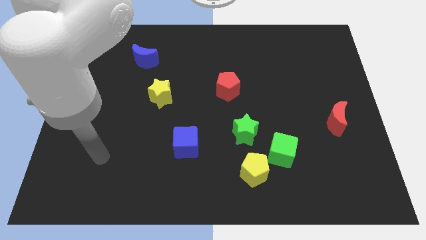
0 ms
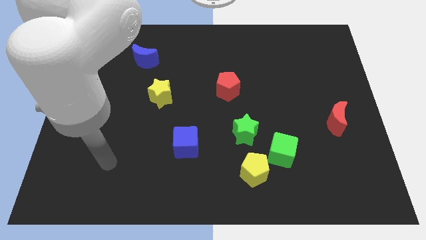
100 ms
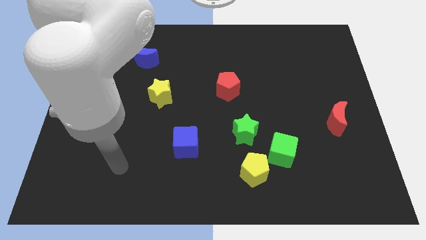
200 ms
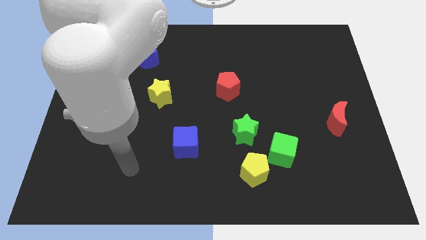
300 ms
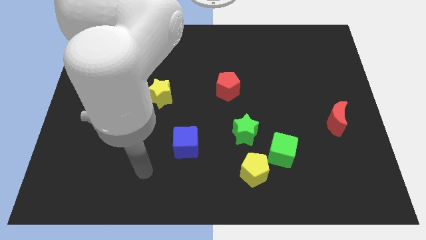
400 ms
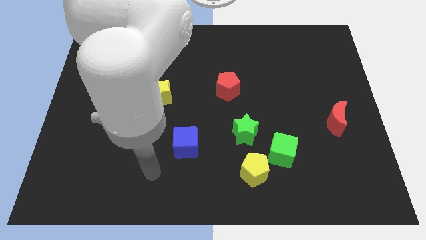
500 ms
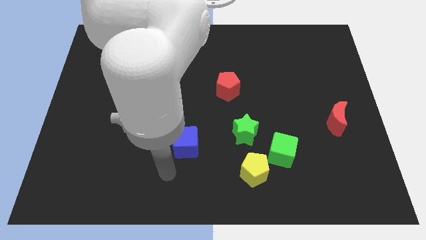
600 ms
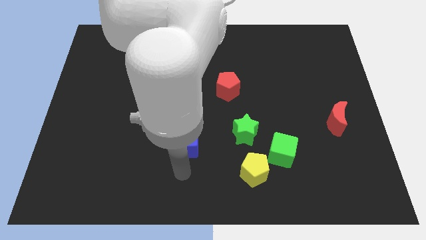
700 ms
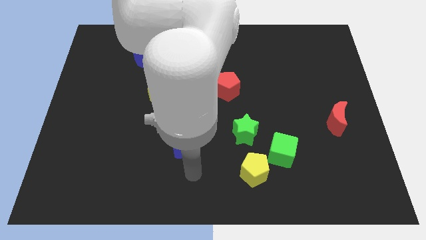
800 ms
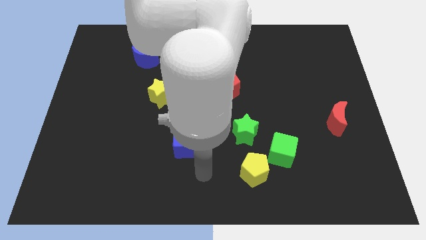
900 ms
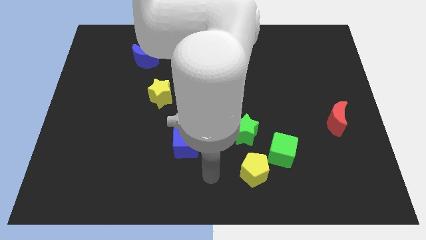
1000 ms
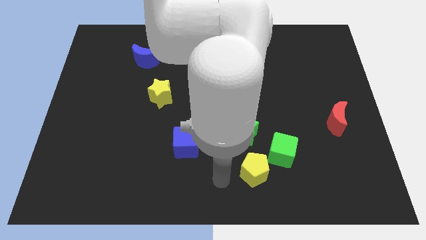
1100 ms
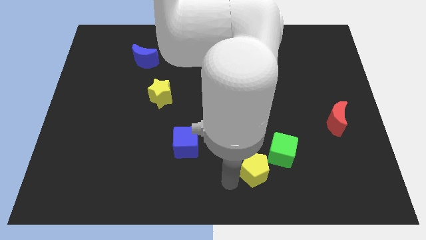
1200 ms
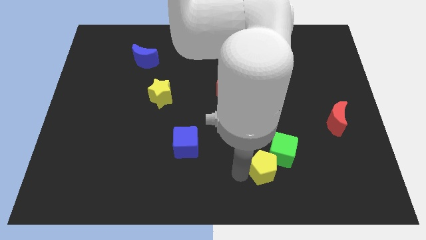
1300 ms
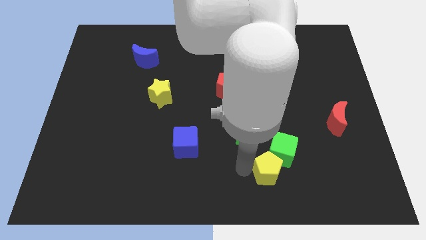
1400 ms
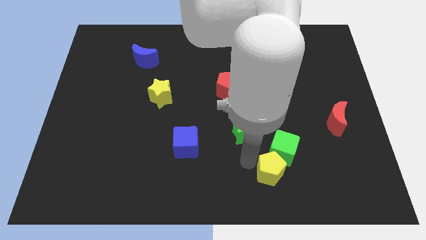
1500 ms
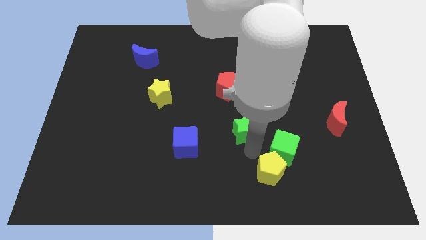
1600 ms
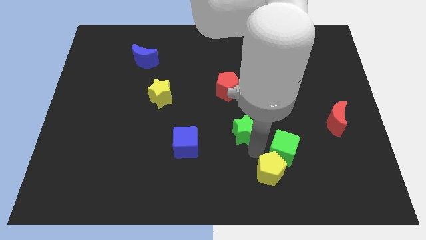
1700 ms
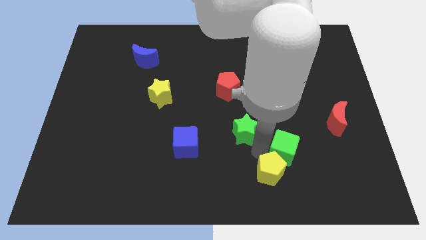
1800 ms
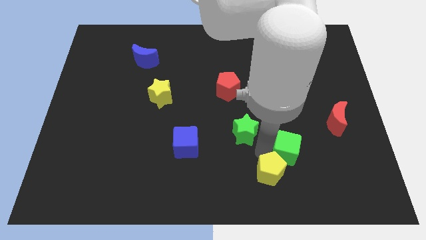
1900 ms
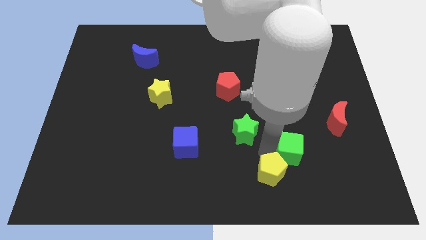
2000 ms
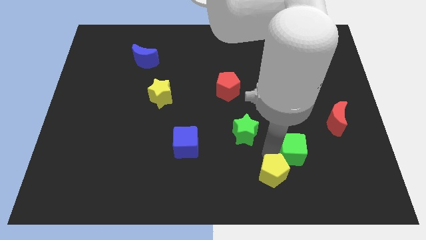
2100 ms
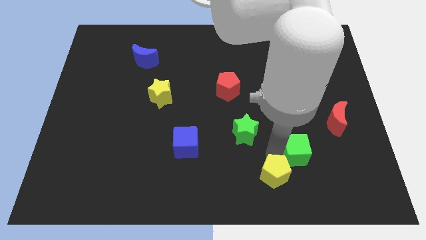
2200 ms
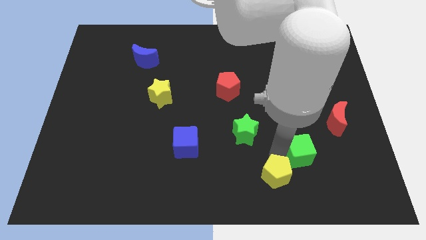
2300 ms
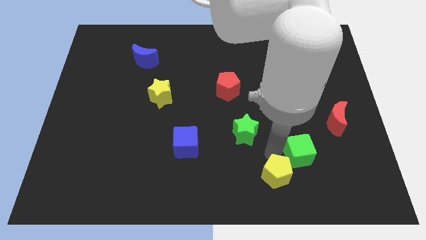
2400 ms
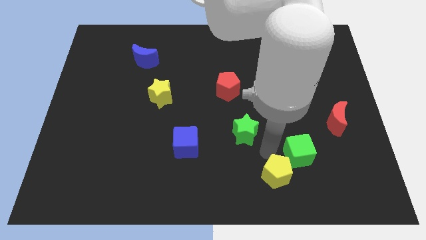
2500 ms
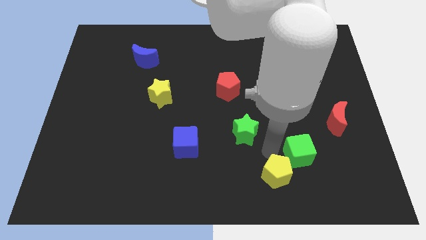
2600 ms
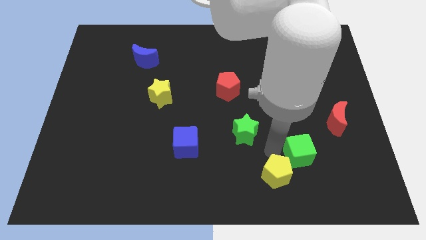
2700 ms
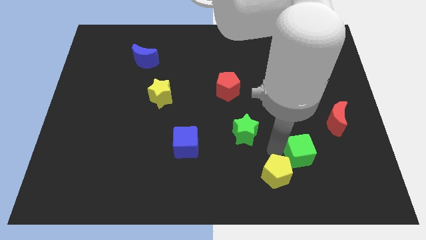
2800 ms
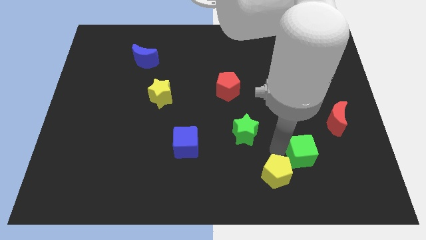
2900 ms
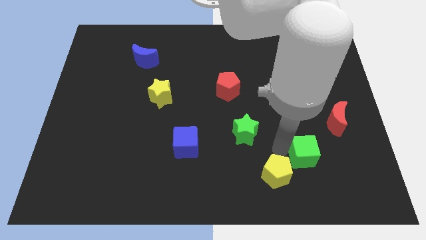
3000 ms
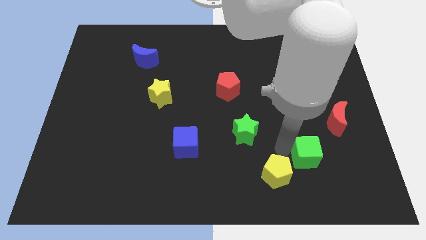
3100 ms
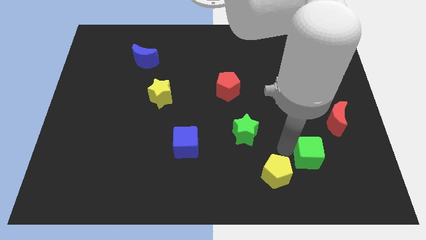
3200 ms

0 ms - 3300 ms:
pull the green cube apart from the yellow pentagon and green star

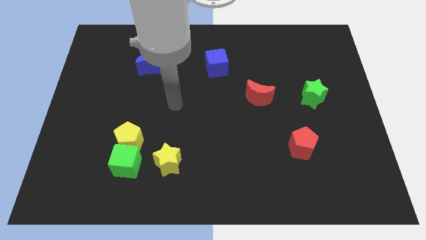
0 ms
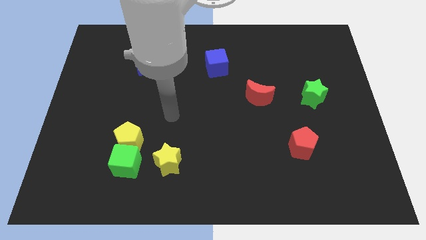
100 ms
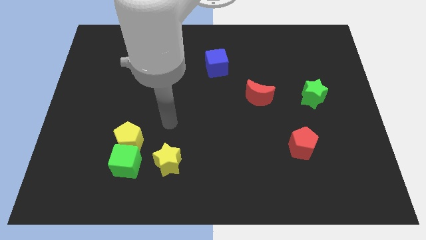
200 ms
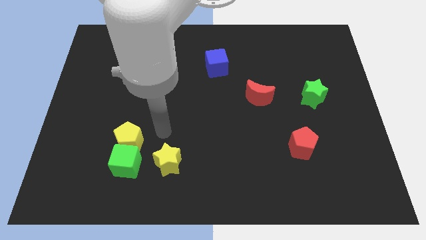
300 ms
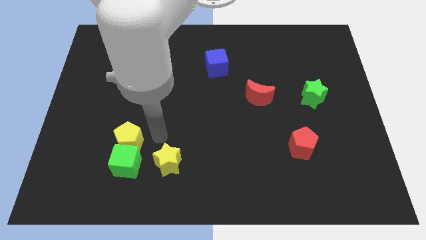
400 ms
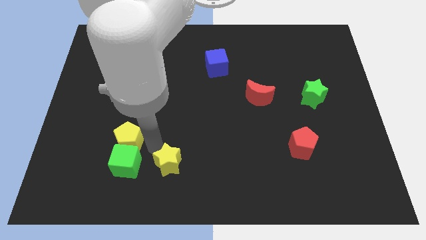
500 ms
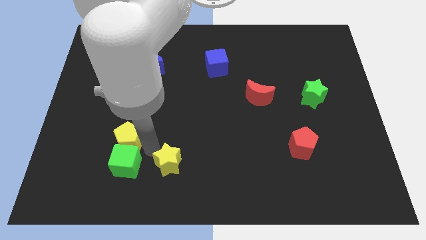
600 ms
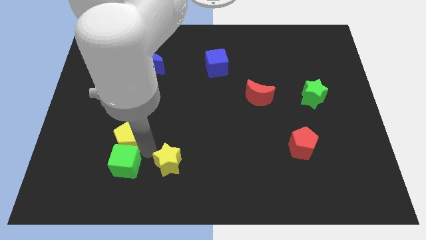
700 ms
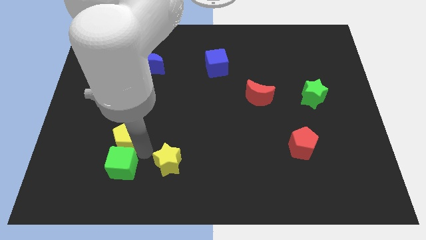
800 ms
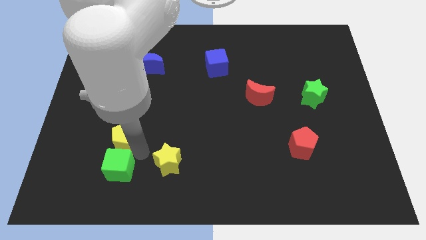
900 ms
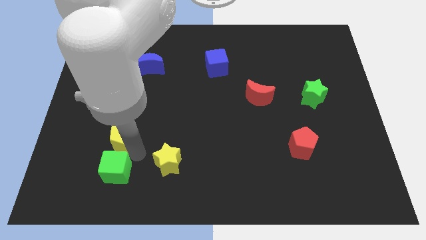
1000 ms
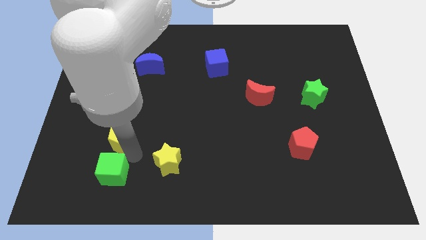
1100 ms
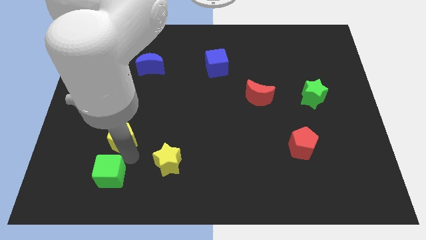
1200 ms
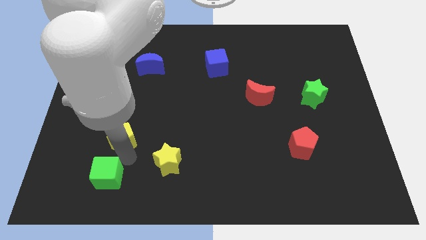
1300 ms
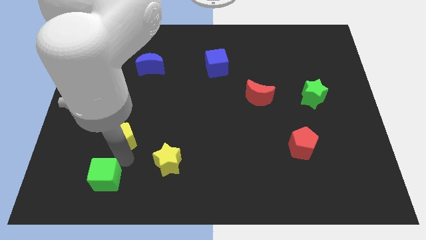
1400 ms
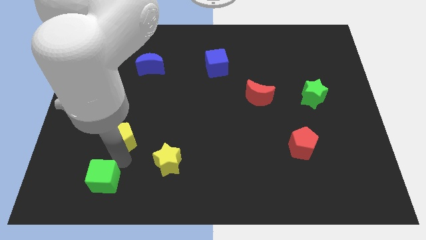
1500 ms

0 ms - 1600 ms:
move the green cube away from the yellow pentagon and yellow star

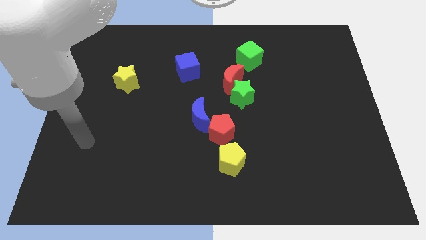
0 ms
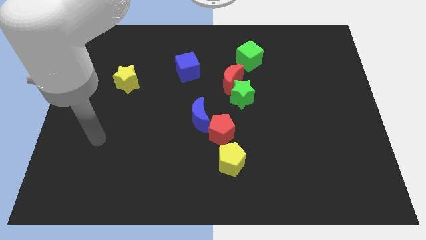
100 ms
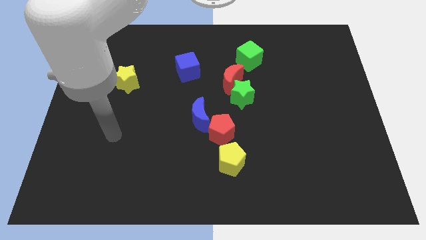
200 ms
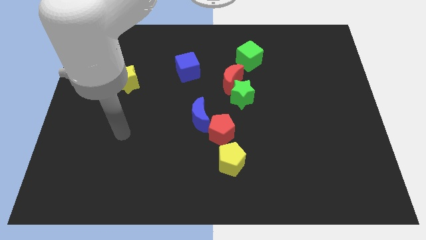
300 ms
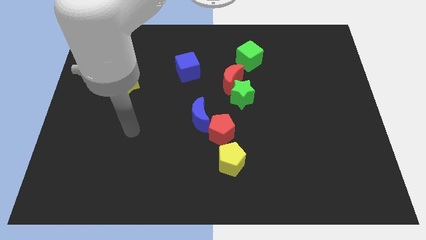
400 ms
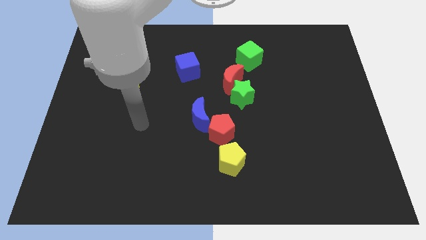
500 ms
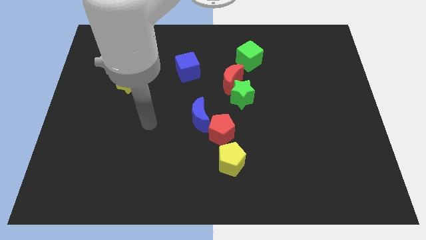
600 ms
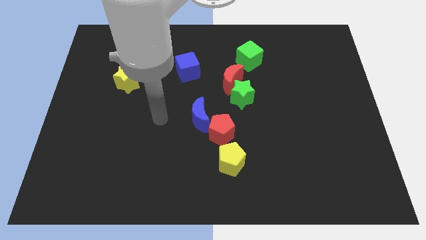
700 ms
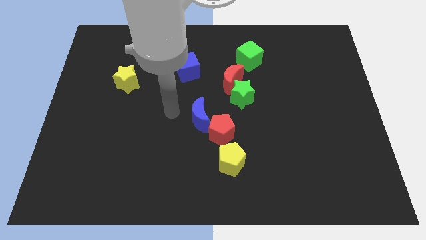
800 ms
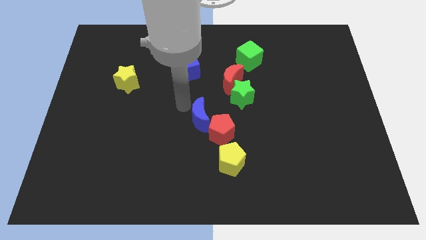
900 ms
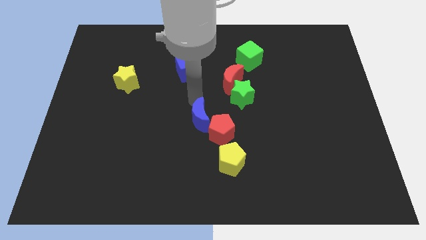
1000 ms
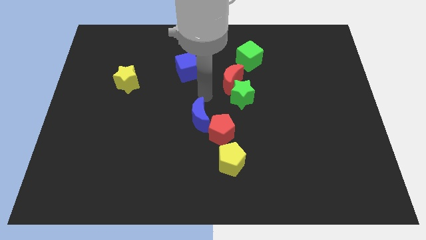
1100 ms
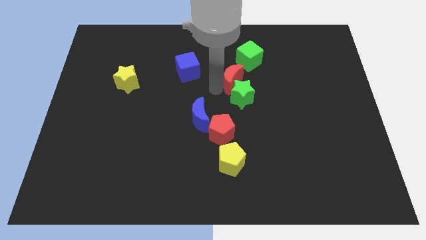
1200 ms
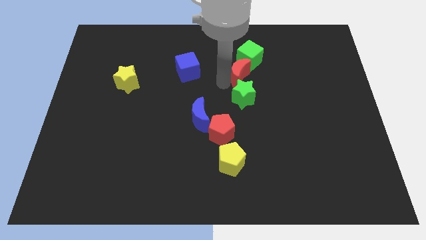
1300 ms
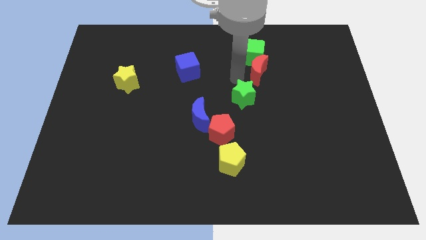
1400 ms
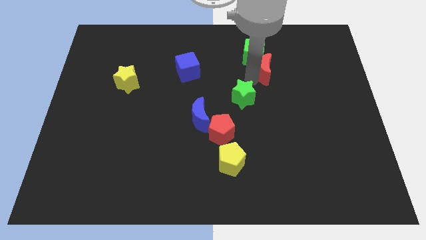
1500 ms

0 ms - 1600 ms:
pull the green star apart from the red moon

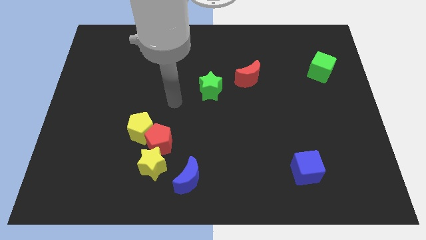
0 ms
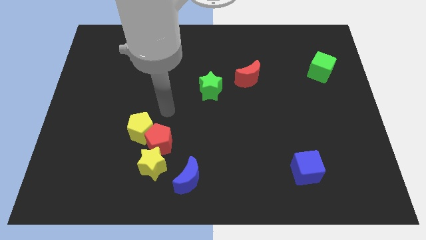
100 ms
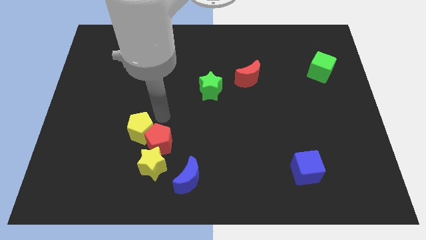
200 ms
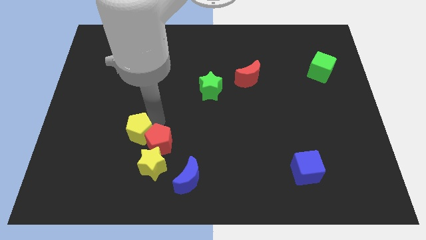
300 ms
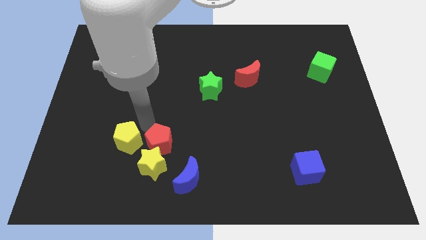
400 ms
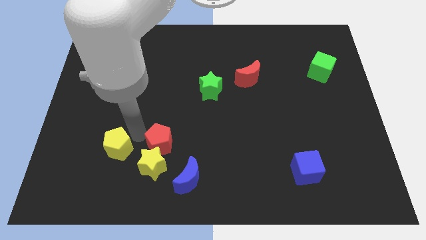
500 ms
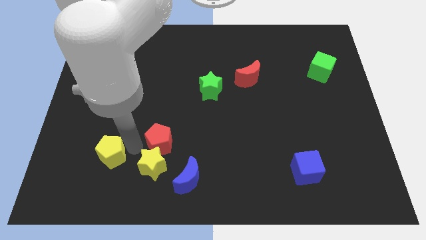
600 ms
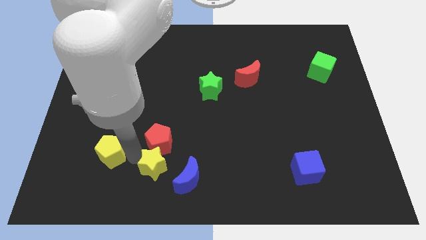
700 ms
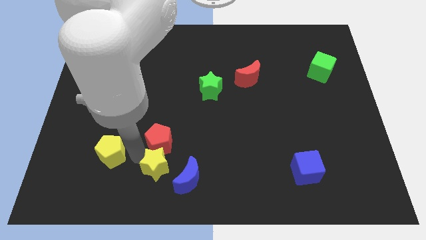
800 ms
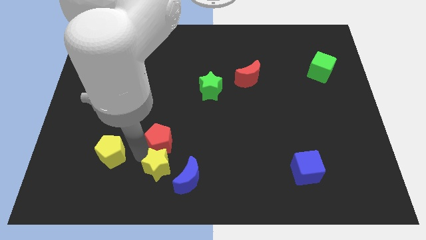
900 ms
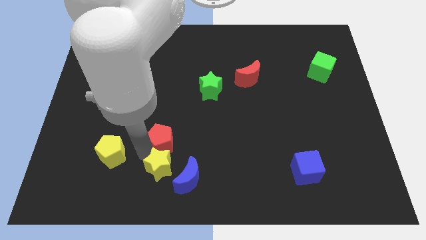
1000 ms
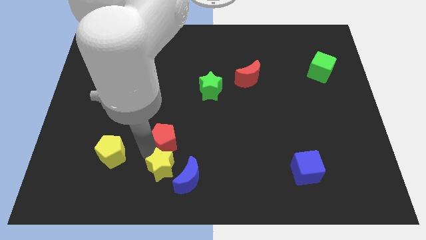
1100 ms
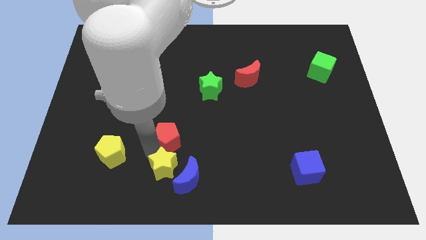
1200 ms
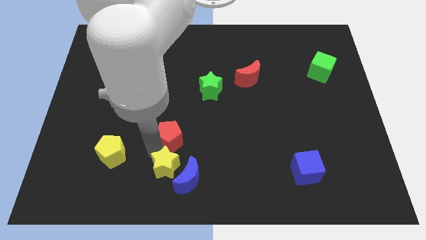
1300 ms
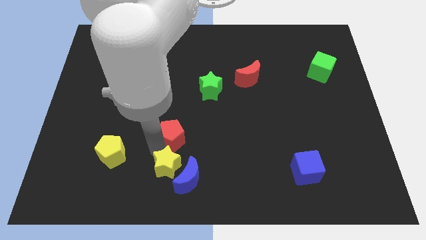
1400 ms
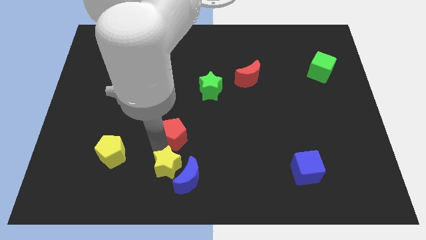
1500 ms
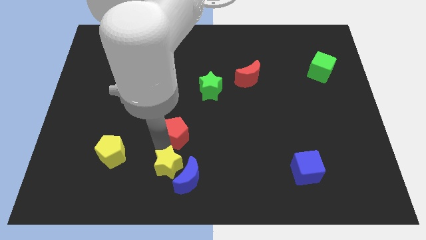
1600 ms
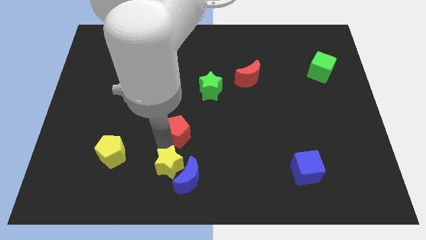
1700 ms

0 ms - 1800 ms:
move the red pentagon away from the yellow pentagon and yellow star

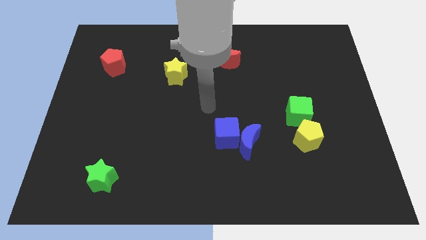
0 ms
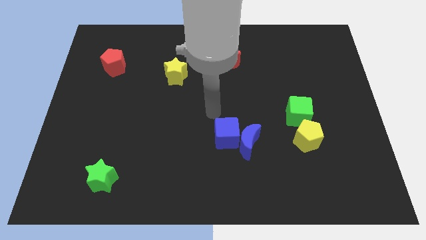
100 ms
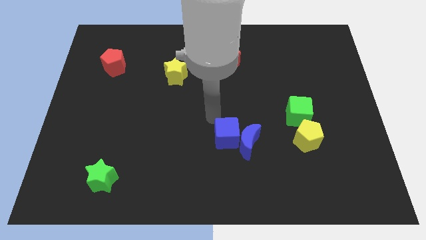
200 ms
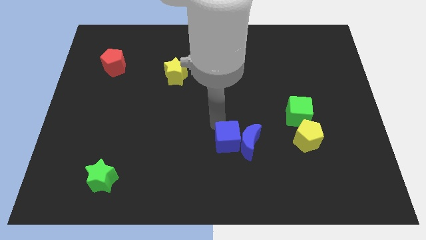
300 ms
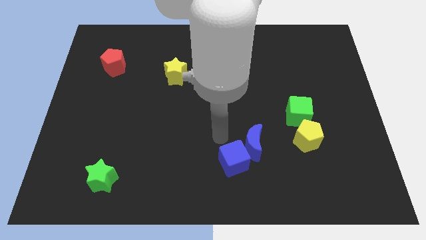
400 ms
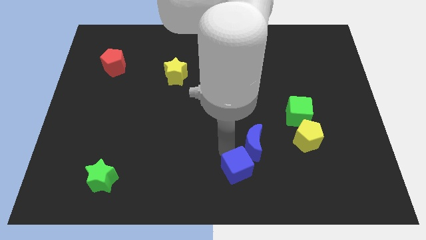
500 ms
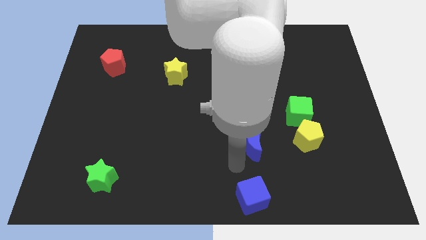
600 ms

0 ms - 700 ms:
move the blue moon away from the blue cube

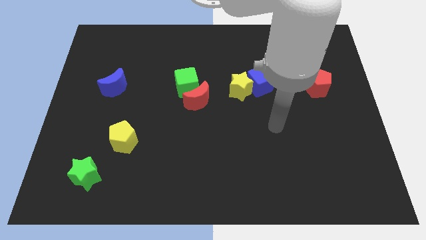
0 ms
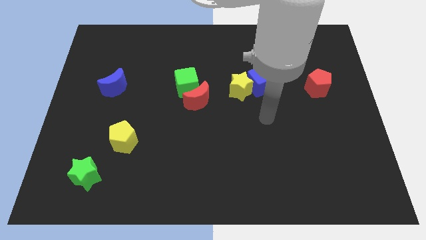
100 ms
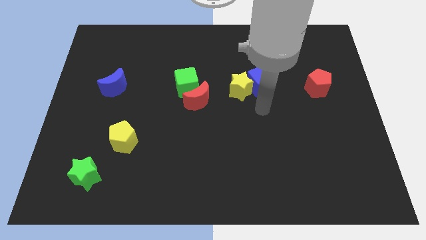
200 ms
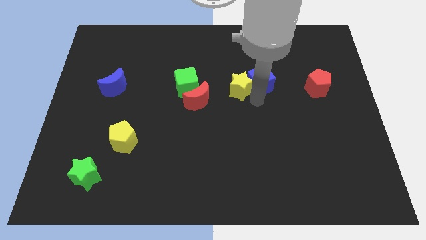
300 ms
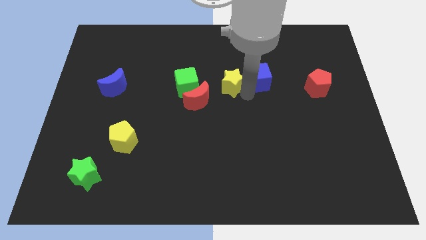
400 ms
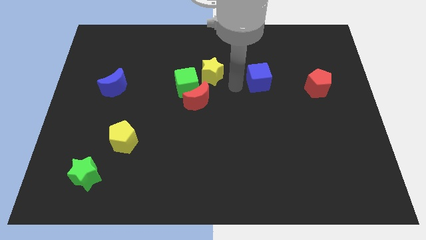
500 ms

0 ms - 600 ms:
pull the blue cube apart from the yellow star
